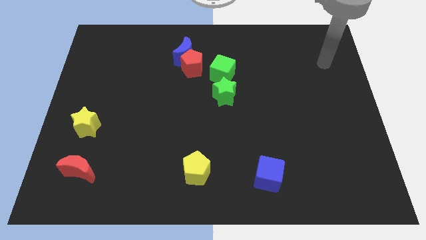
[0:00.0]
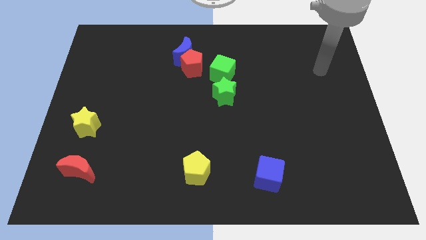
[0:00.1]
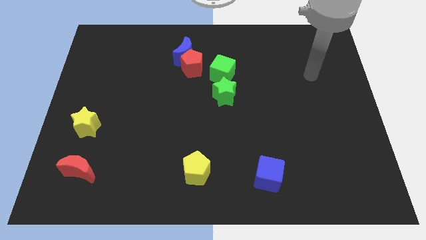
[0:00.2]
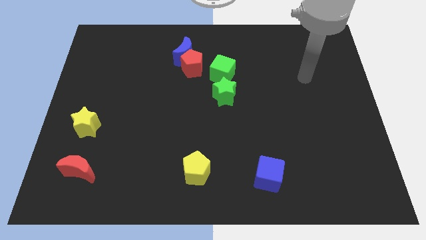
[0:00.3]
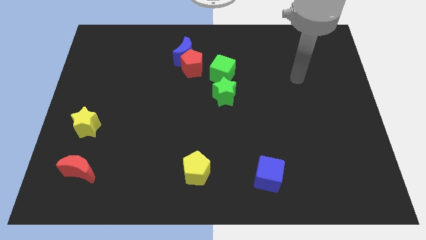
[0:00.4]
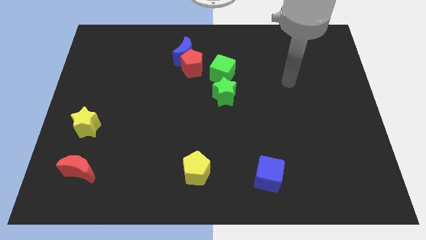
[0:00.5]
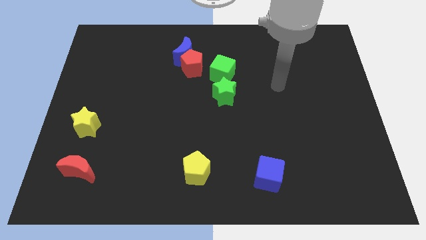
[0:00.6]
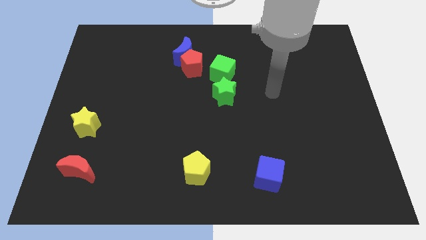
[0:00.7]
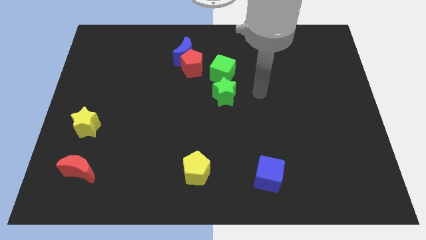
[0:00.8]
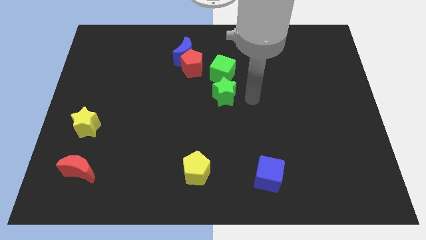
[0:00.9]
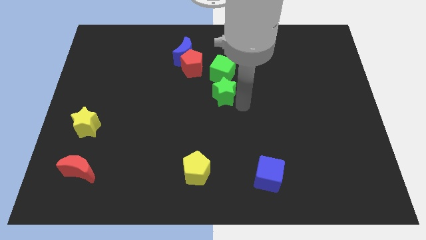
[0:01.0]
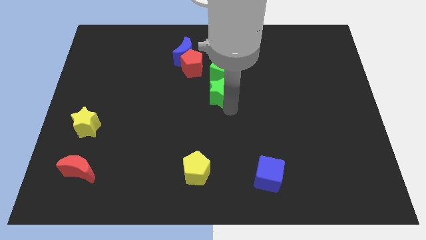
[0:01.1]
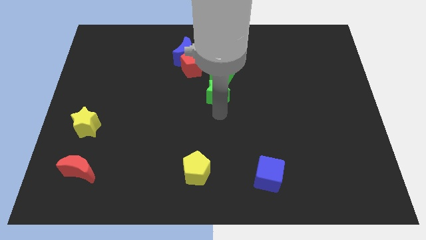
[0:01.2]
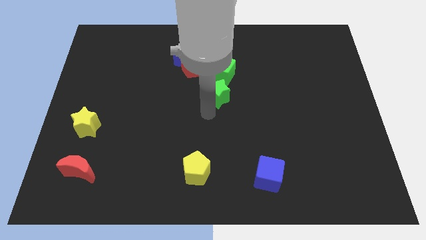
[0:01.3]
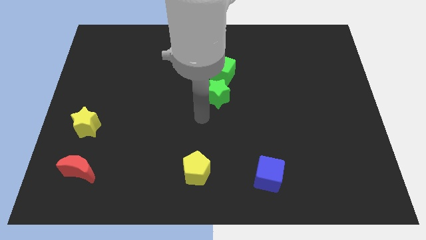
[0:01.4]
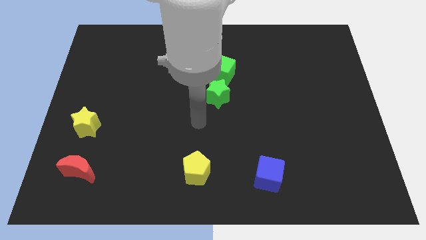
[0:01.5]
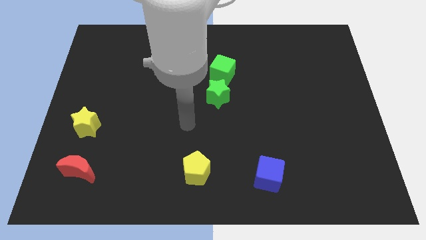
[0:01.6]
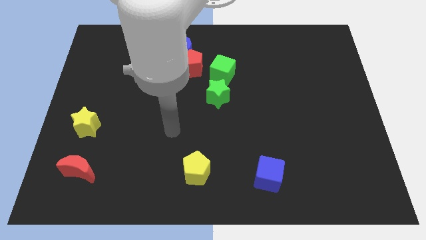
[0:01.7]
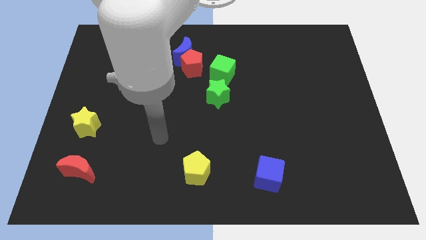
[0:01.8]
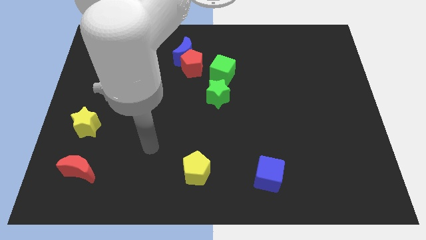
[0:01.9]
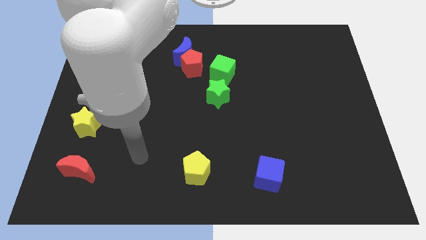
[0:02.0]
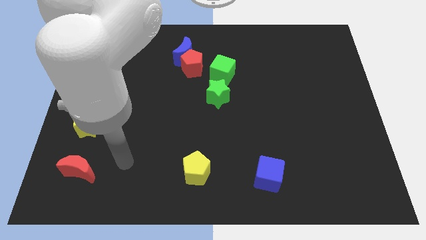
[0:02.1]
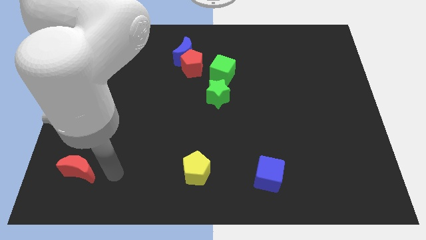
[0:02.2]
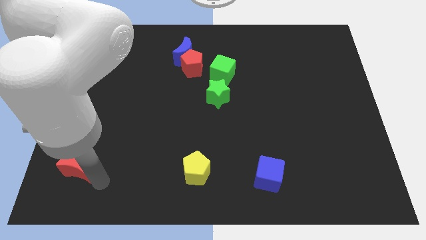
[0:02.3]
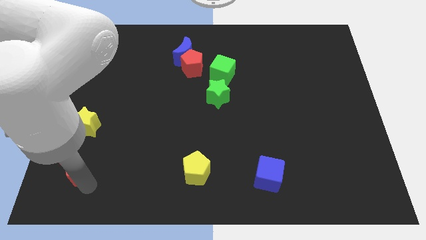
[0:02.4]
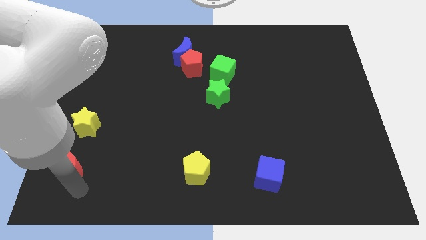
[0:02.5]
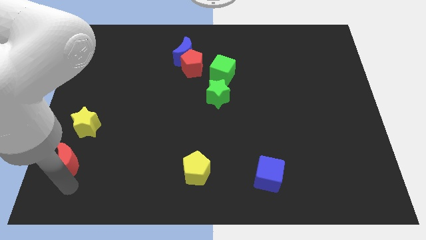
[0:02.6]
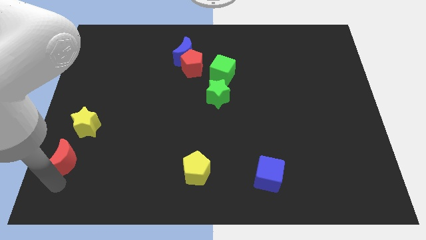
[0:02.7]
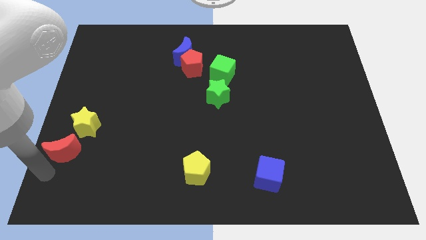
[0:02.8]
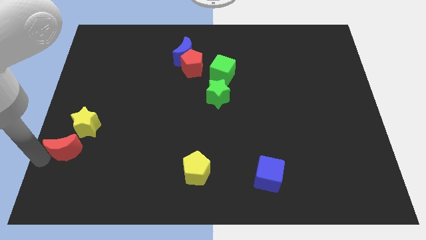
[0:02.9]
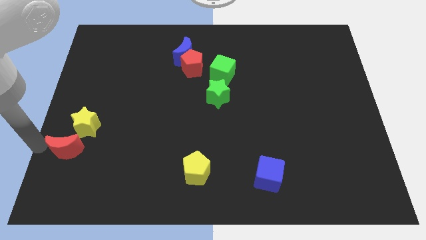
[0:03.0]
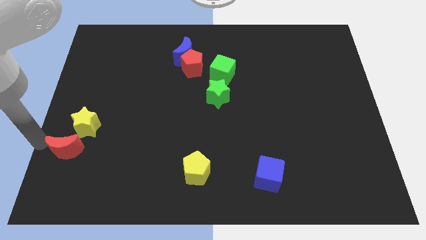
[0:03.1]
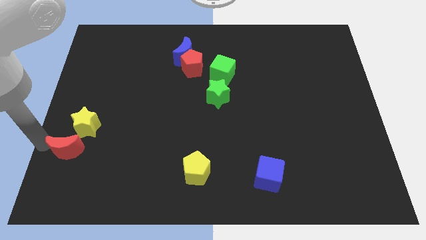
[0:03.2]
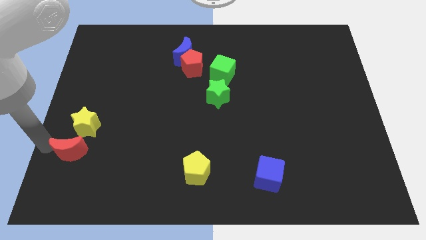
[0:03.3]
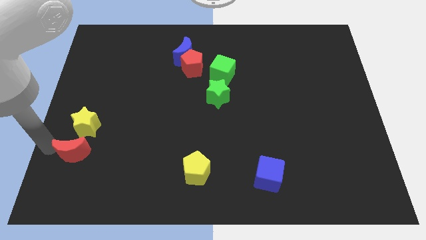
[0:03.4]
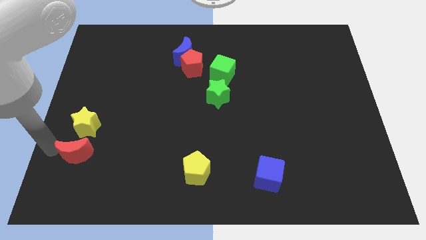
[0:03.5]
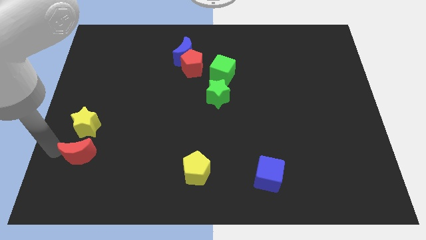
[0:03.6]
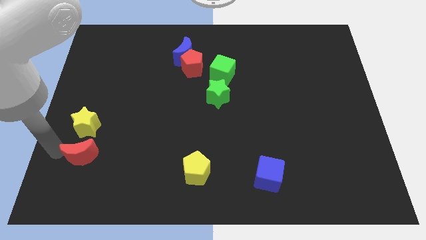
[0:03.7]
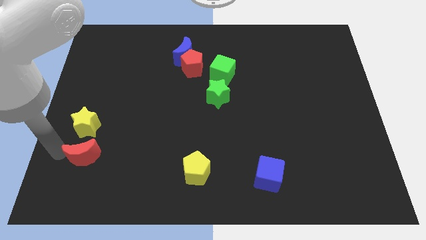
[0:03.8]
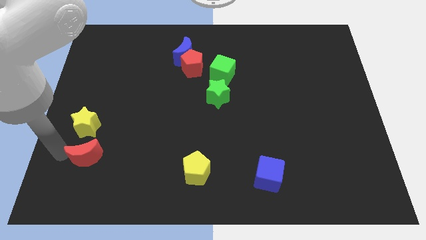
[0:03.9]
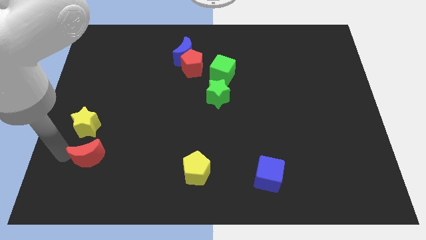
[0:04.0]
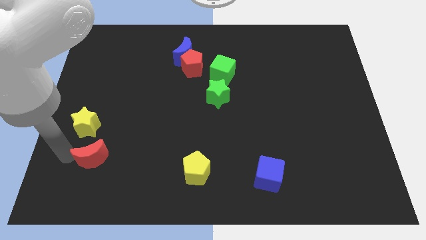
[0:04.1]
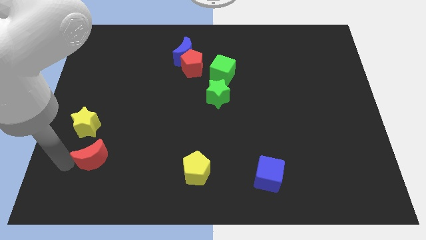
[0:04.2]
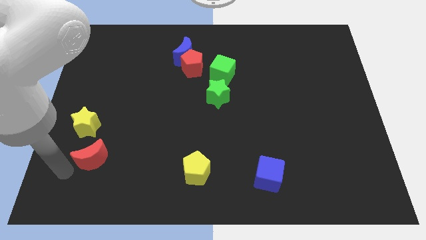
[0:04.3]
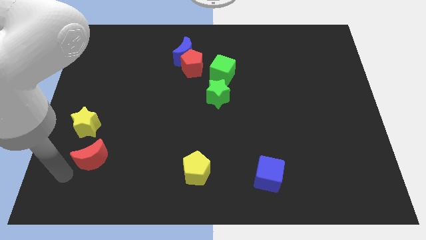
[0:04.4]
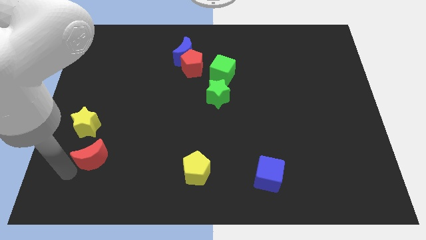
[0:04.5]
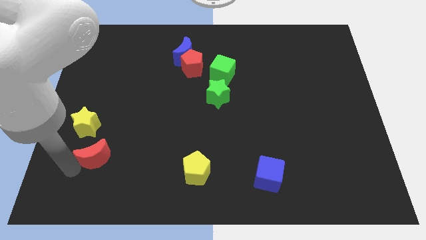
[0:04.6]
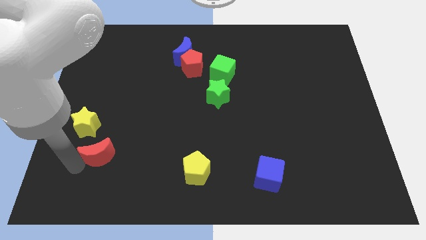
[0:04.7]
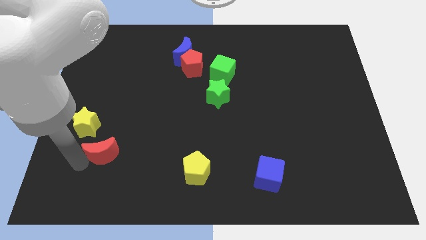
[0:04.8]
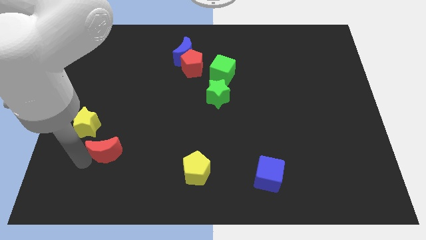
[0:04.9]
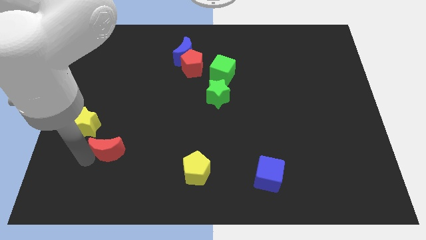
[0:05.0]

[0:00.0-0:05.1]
move the red moon slightly up and right diagonally

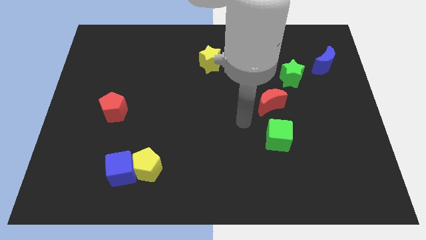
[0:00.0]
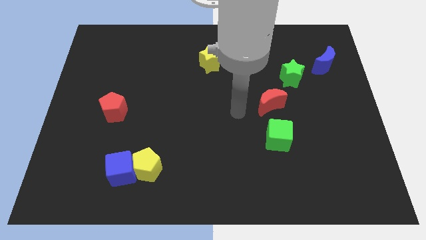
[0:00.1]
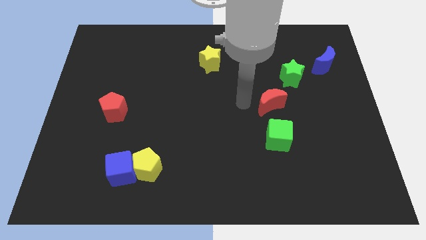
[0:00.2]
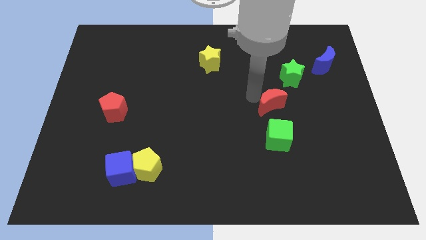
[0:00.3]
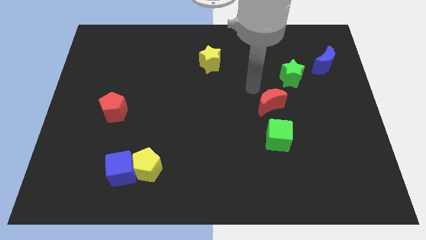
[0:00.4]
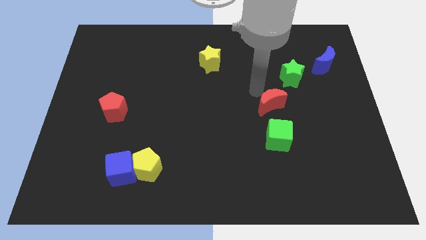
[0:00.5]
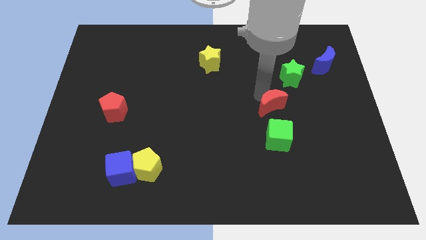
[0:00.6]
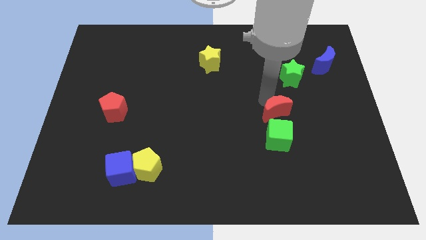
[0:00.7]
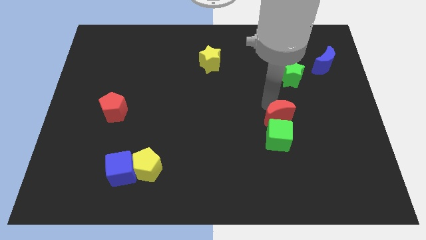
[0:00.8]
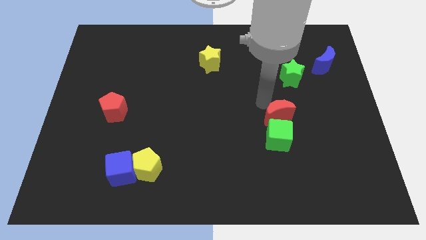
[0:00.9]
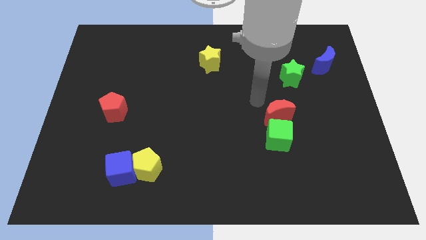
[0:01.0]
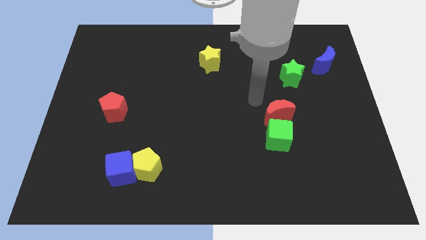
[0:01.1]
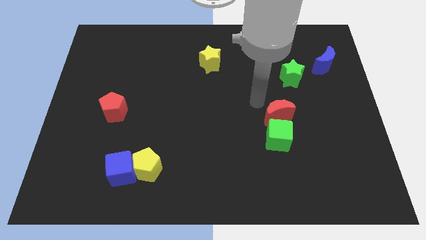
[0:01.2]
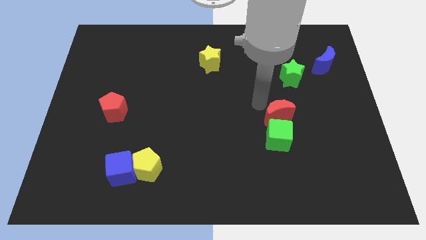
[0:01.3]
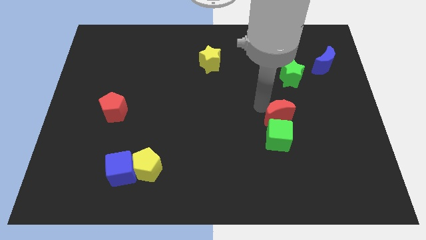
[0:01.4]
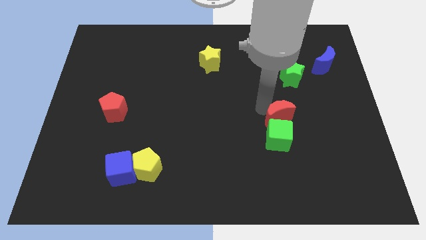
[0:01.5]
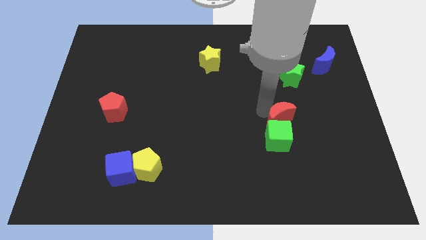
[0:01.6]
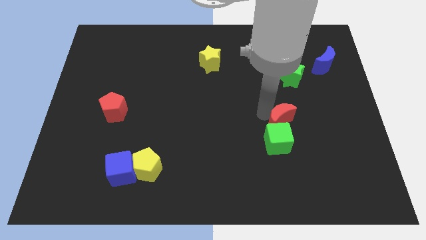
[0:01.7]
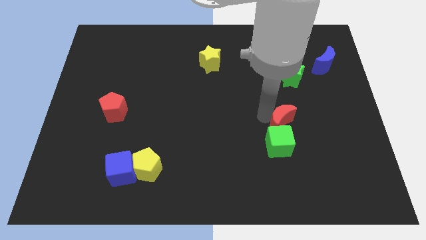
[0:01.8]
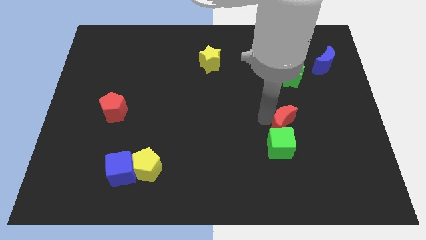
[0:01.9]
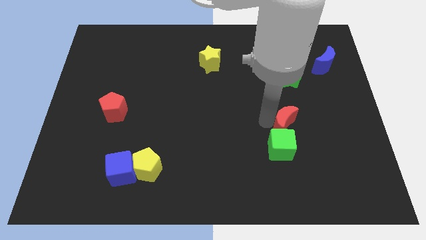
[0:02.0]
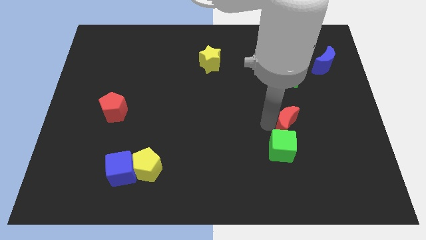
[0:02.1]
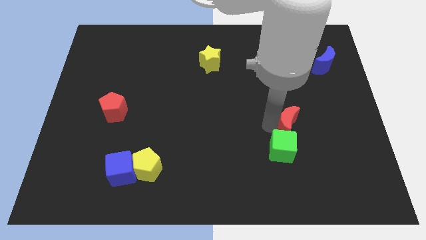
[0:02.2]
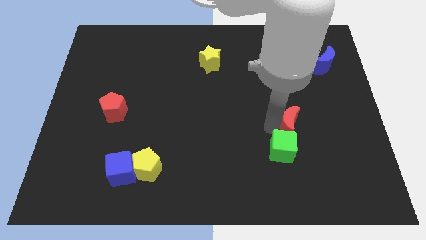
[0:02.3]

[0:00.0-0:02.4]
slide the red moon a little diagonally downwards and right

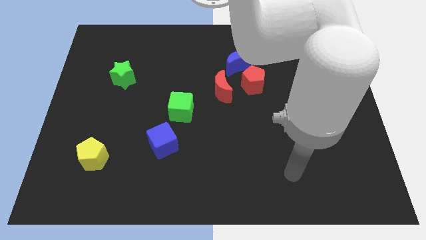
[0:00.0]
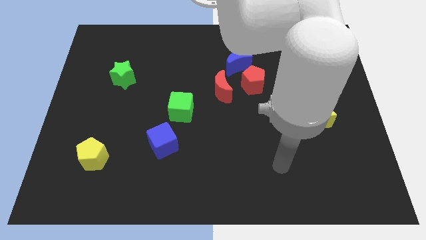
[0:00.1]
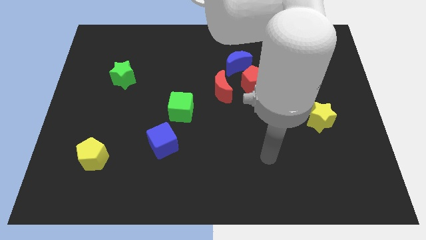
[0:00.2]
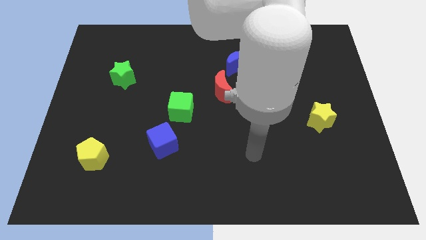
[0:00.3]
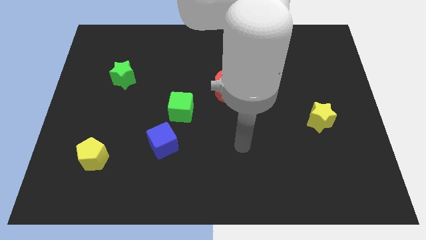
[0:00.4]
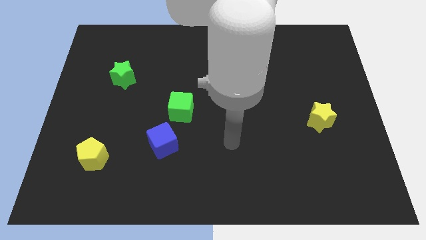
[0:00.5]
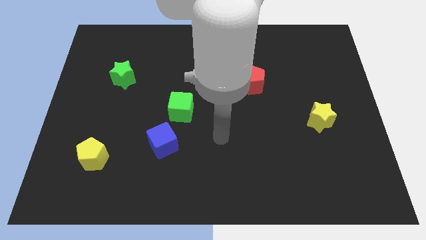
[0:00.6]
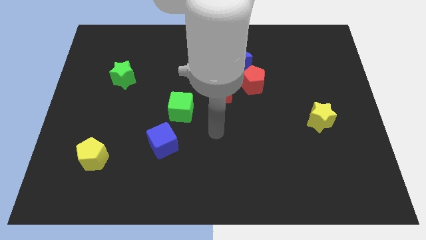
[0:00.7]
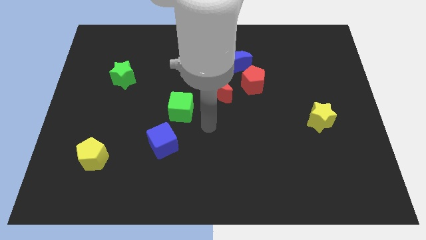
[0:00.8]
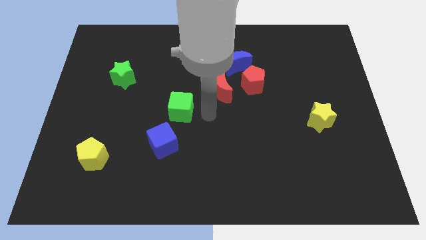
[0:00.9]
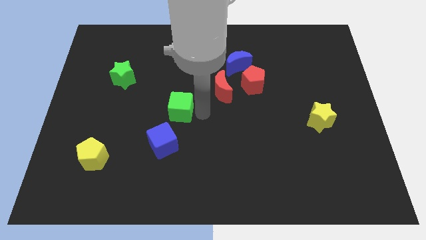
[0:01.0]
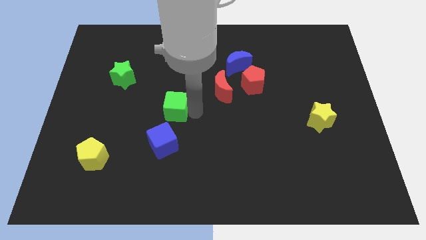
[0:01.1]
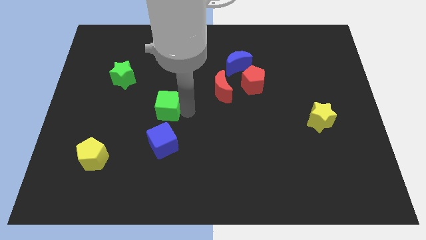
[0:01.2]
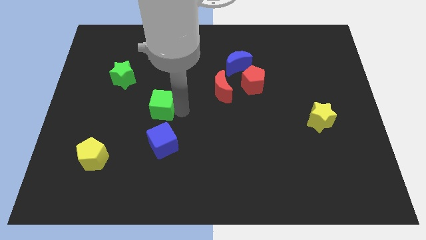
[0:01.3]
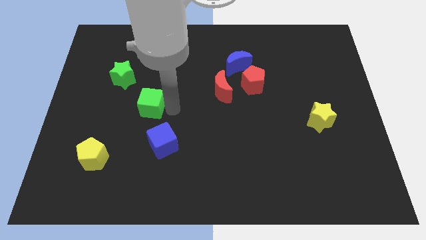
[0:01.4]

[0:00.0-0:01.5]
push the green cube to the left somewhat
